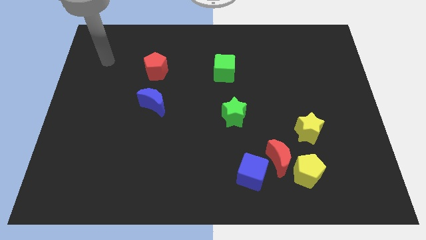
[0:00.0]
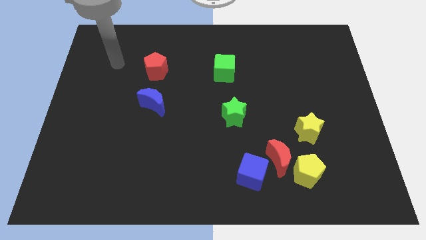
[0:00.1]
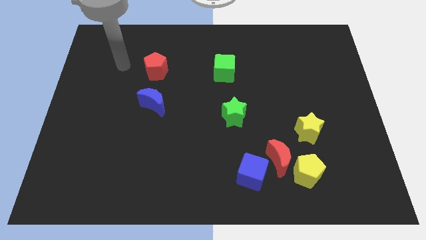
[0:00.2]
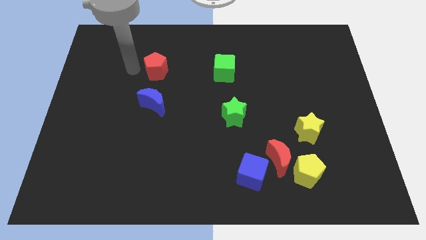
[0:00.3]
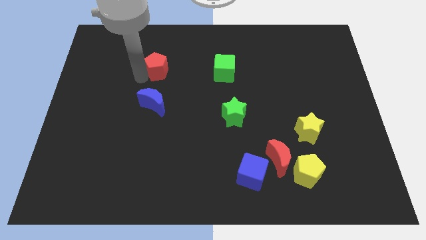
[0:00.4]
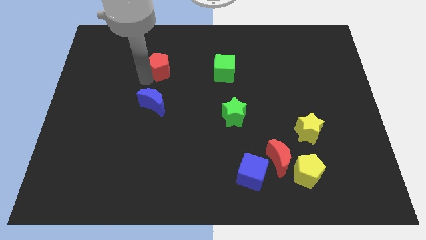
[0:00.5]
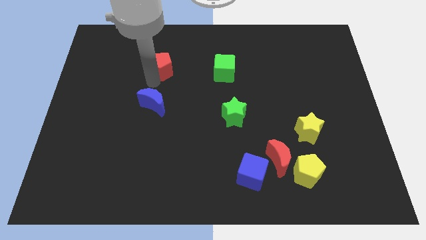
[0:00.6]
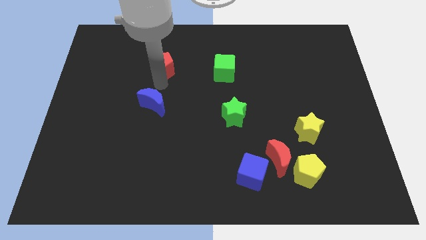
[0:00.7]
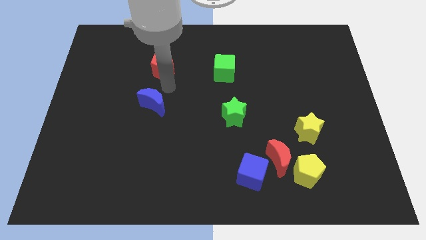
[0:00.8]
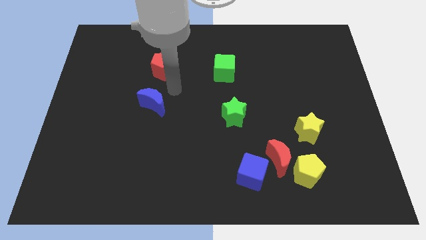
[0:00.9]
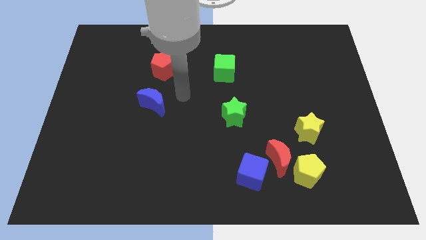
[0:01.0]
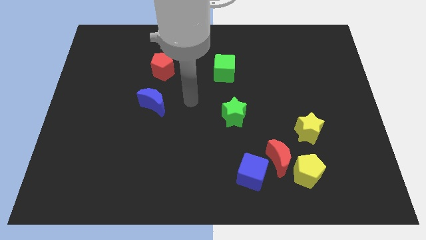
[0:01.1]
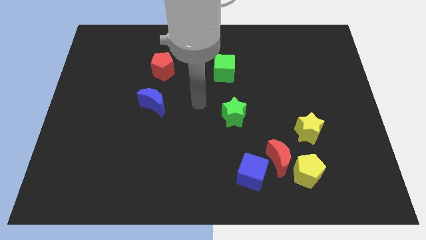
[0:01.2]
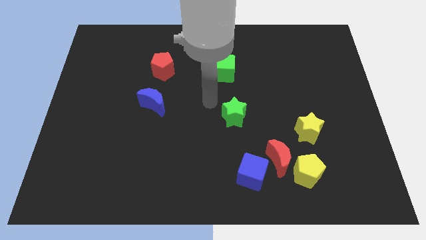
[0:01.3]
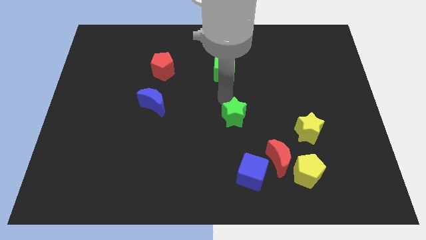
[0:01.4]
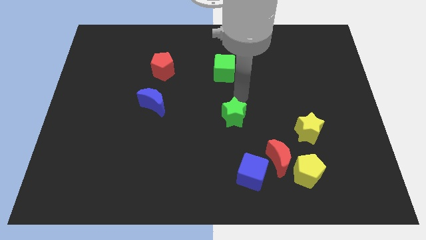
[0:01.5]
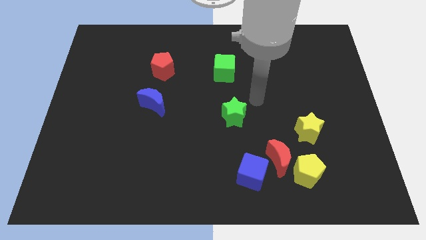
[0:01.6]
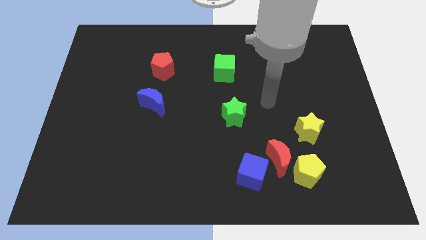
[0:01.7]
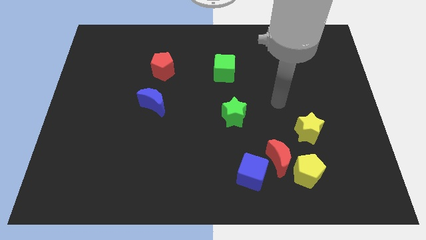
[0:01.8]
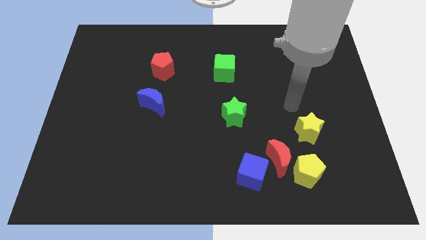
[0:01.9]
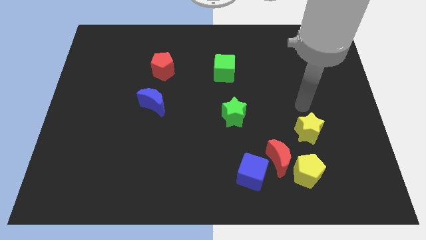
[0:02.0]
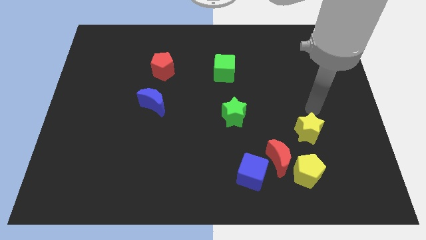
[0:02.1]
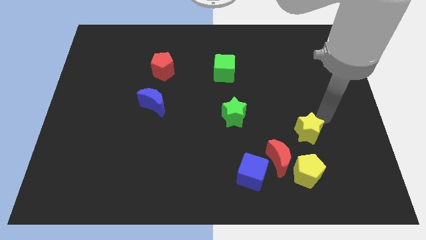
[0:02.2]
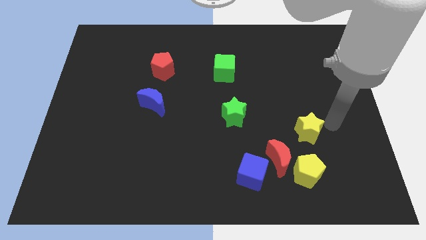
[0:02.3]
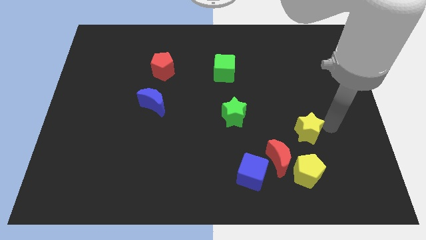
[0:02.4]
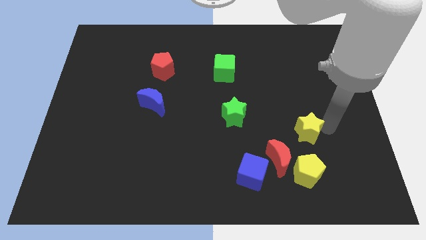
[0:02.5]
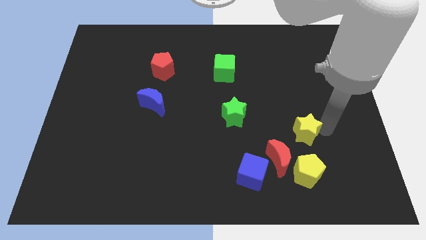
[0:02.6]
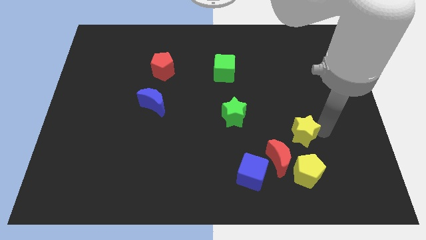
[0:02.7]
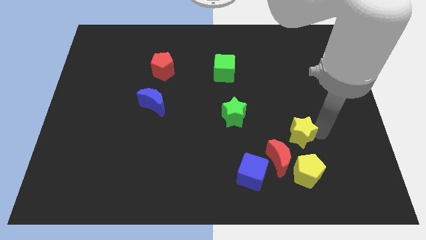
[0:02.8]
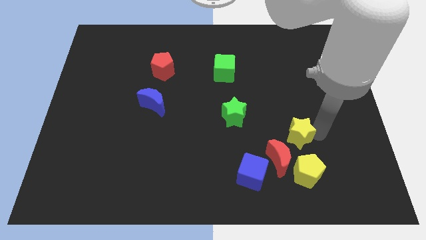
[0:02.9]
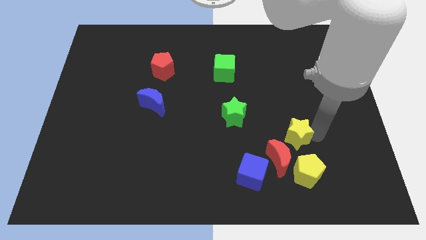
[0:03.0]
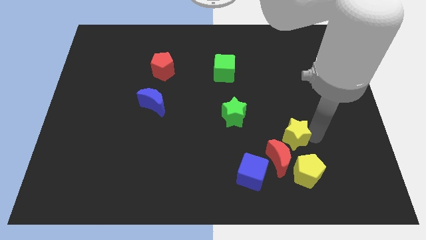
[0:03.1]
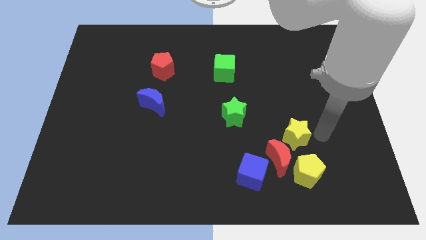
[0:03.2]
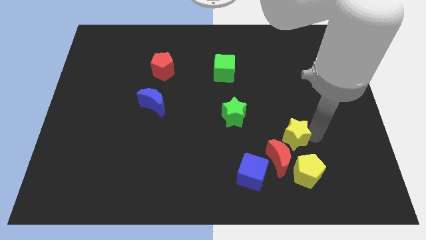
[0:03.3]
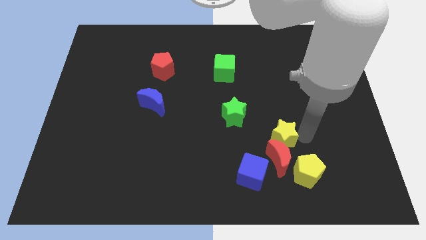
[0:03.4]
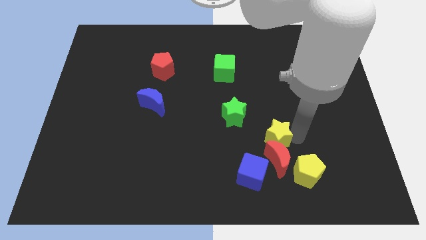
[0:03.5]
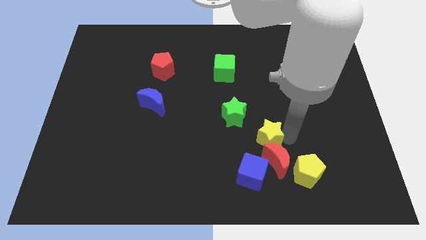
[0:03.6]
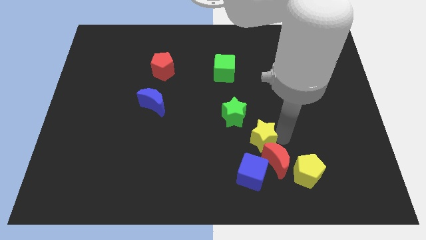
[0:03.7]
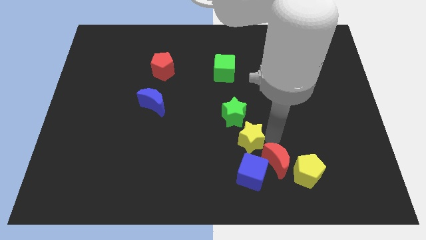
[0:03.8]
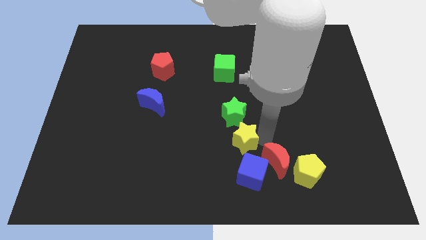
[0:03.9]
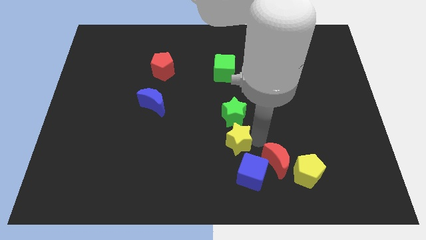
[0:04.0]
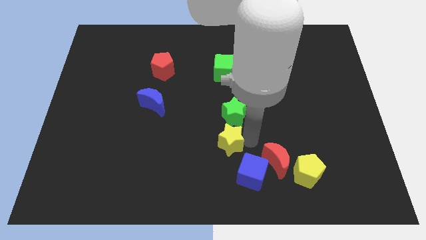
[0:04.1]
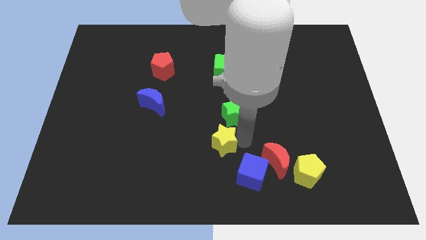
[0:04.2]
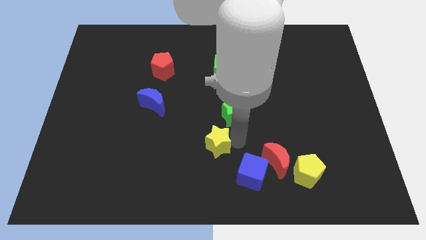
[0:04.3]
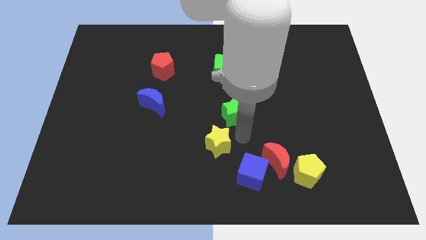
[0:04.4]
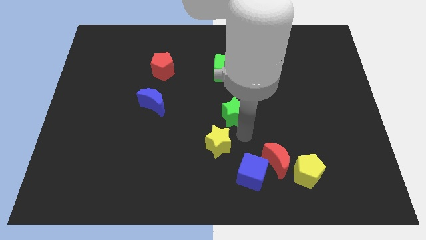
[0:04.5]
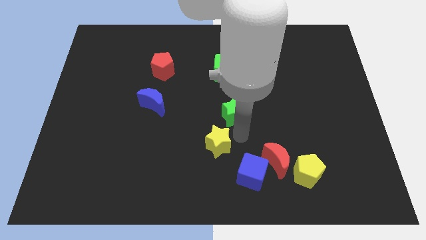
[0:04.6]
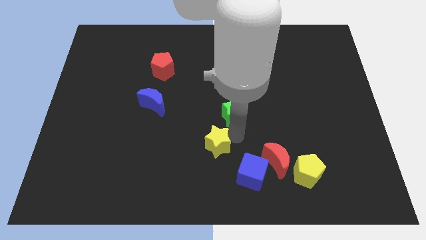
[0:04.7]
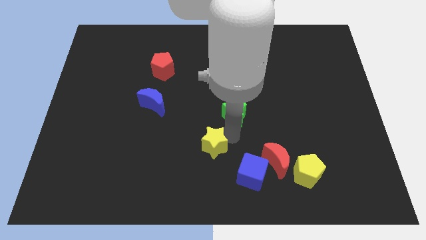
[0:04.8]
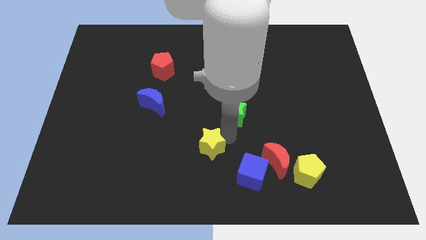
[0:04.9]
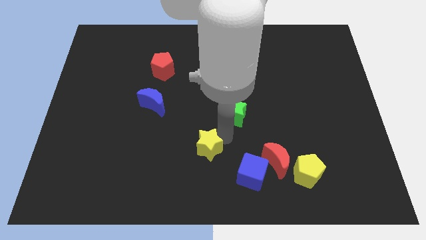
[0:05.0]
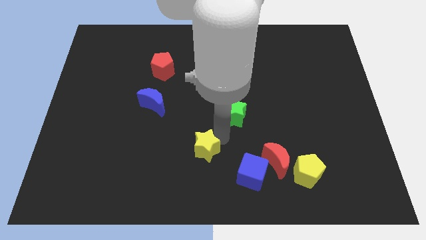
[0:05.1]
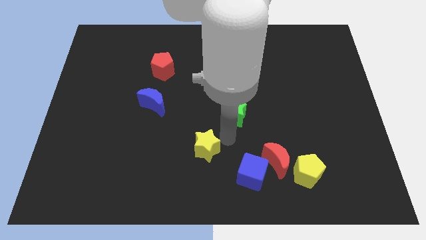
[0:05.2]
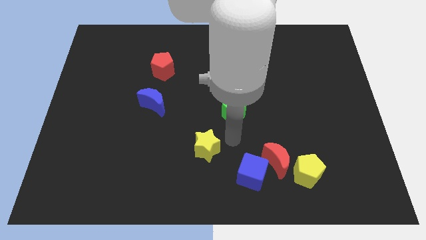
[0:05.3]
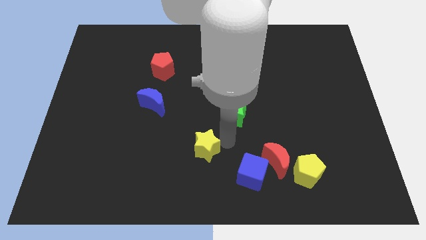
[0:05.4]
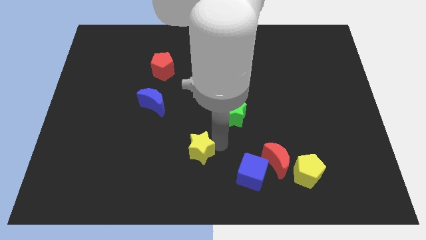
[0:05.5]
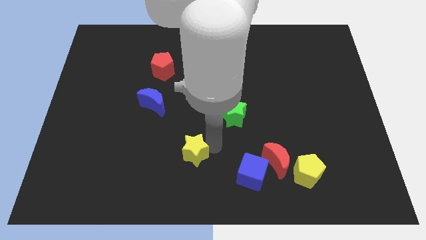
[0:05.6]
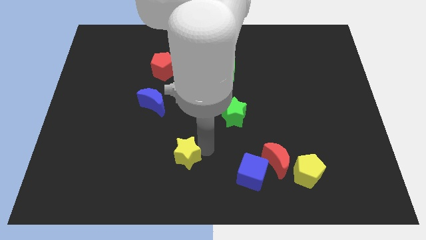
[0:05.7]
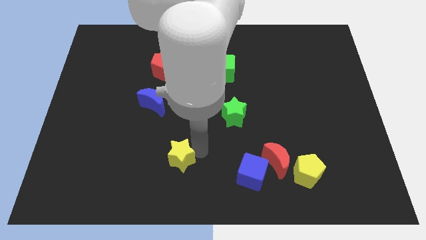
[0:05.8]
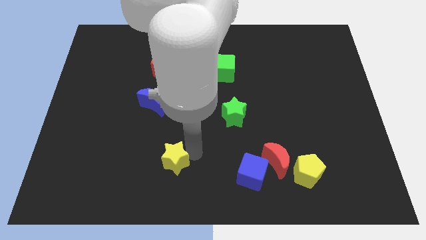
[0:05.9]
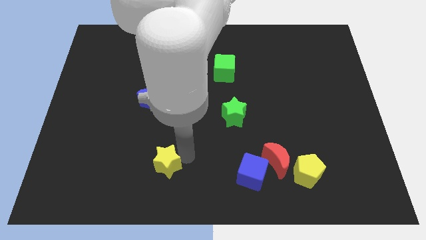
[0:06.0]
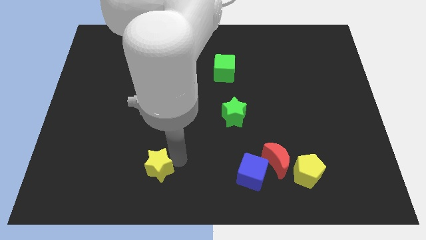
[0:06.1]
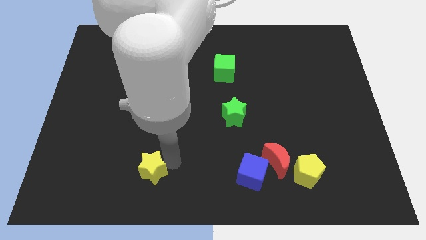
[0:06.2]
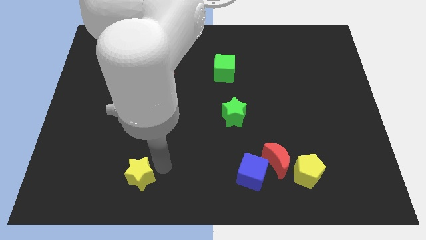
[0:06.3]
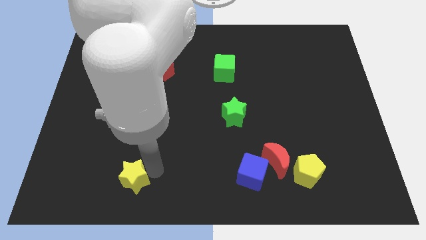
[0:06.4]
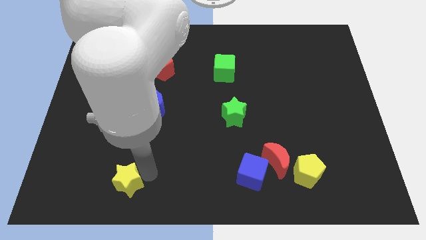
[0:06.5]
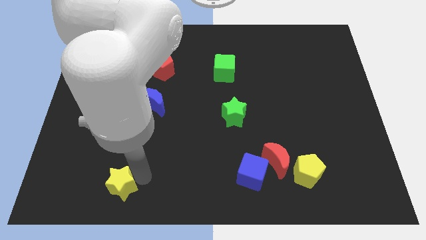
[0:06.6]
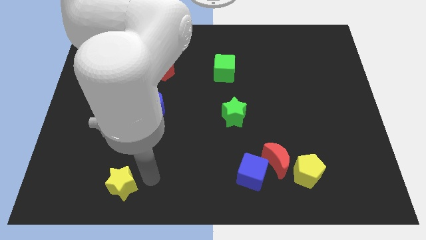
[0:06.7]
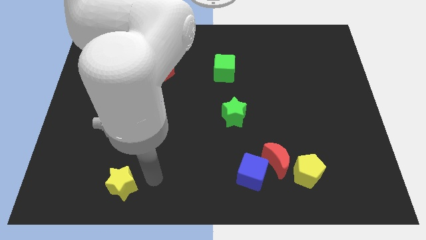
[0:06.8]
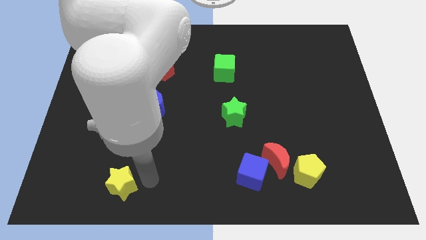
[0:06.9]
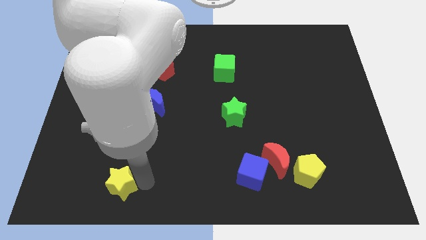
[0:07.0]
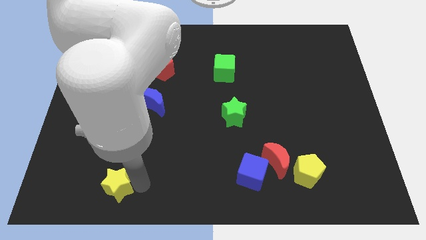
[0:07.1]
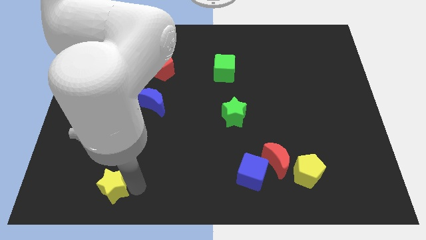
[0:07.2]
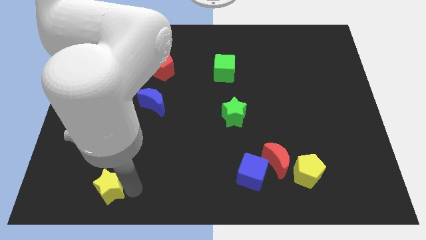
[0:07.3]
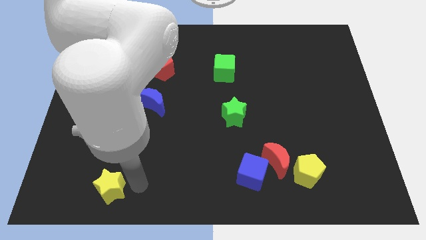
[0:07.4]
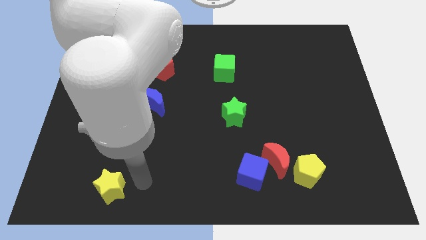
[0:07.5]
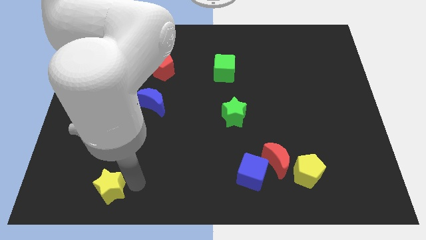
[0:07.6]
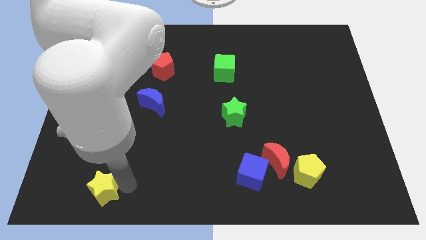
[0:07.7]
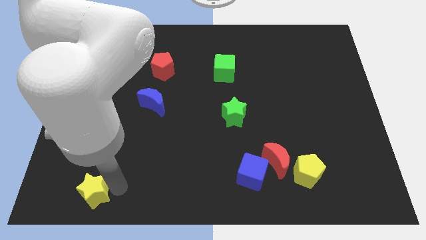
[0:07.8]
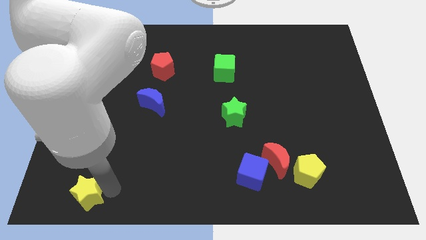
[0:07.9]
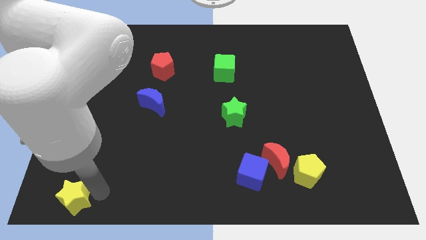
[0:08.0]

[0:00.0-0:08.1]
move the yellow star to the bottom left
